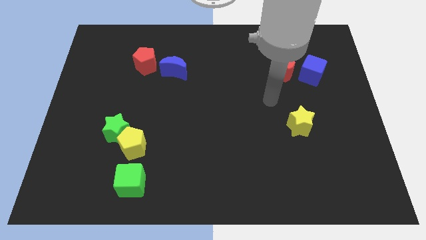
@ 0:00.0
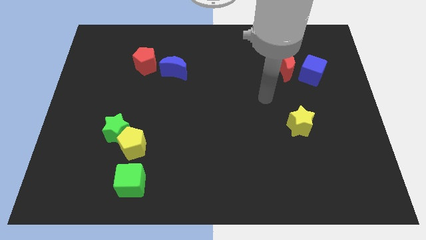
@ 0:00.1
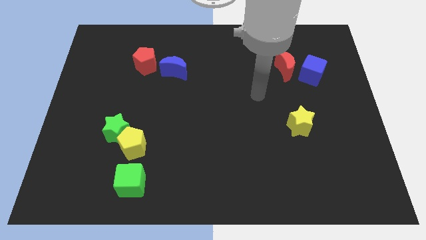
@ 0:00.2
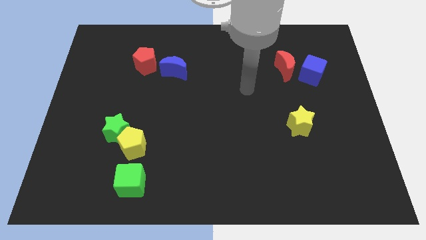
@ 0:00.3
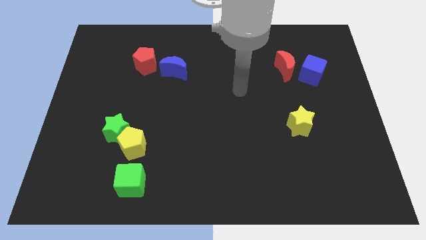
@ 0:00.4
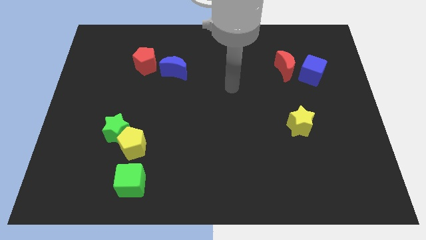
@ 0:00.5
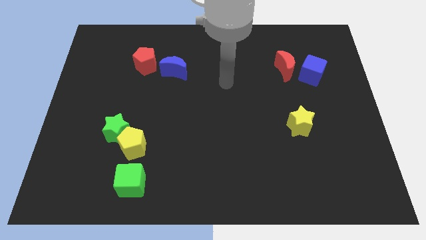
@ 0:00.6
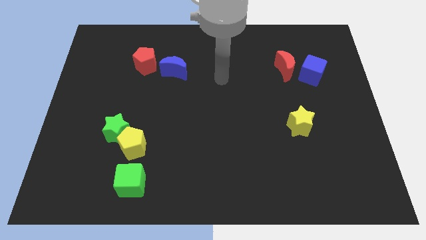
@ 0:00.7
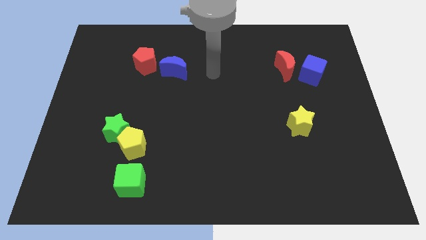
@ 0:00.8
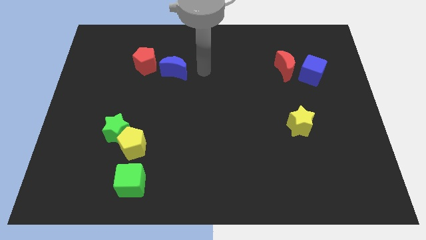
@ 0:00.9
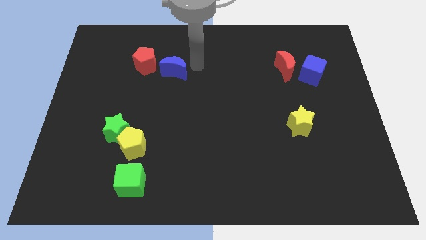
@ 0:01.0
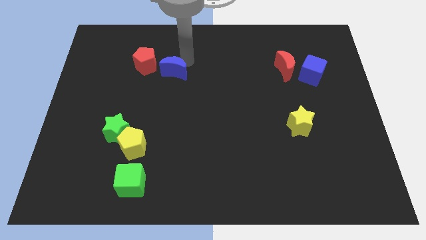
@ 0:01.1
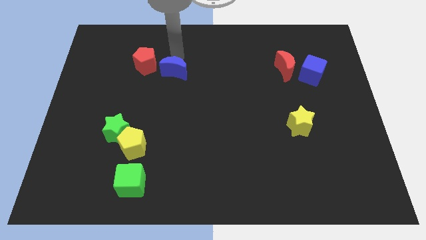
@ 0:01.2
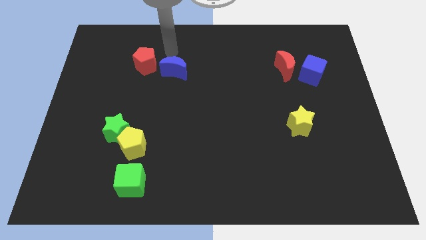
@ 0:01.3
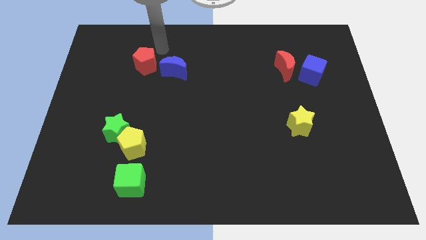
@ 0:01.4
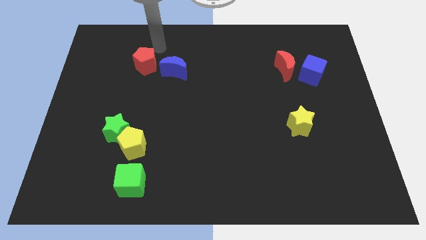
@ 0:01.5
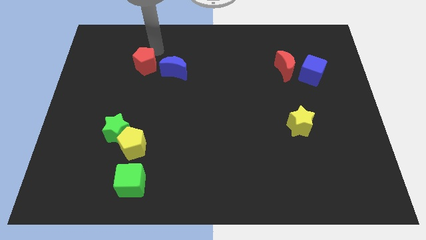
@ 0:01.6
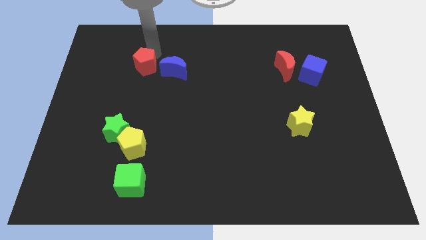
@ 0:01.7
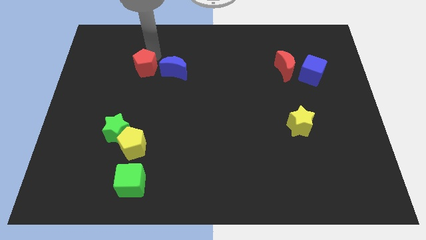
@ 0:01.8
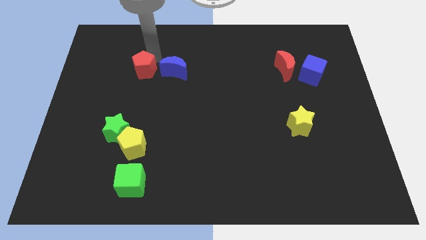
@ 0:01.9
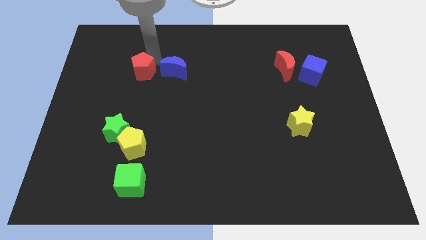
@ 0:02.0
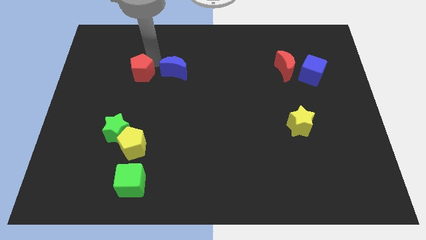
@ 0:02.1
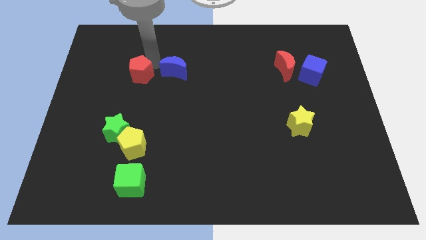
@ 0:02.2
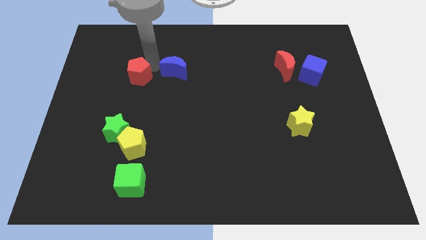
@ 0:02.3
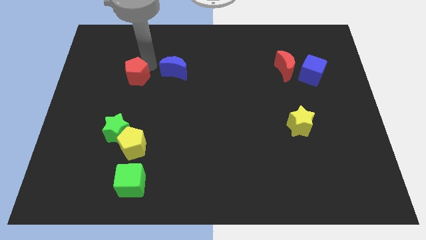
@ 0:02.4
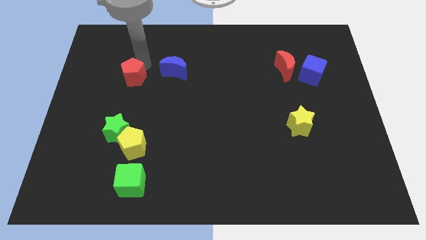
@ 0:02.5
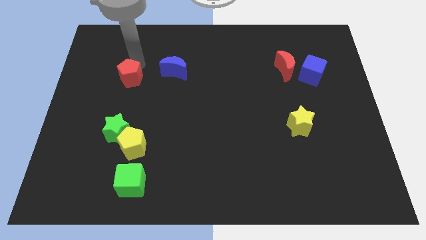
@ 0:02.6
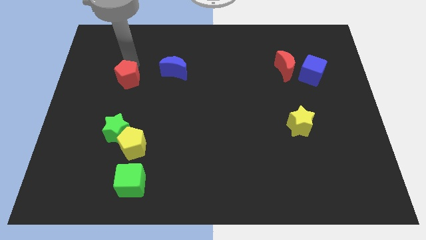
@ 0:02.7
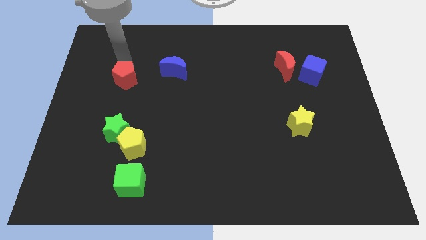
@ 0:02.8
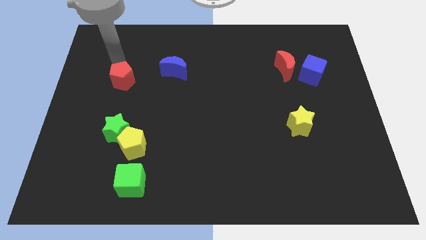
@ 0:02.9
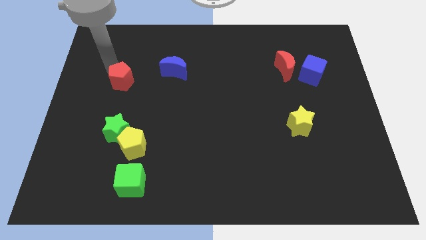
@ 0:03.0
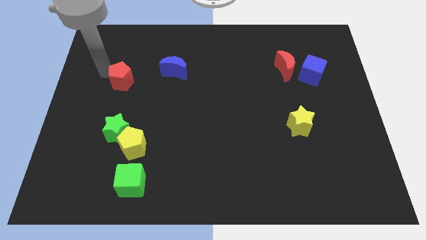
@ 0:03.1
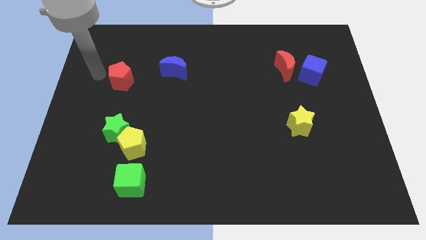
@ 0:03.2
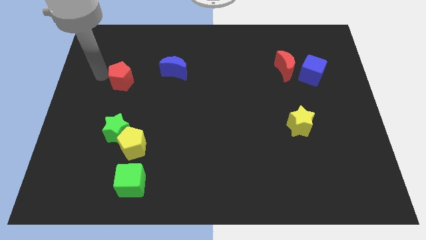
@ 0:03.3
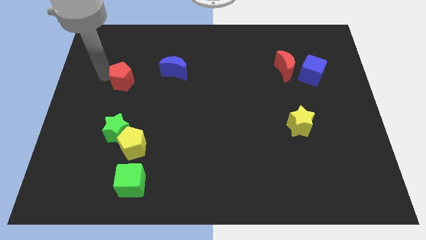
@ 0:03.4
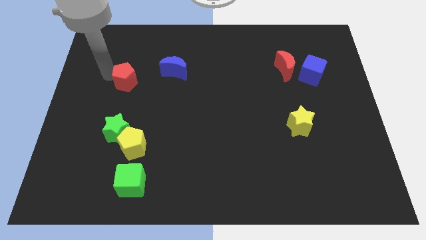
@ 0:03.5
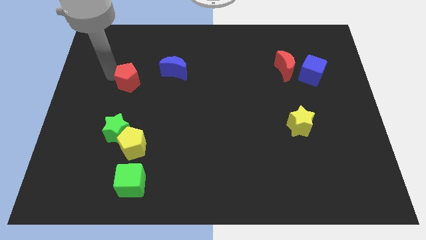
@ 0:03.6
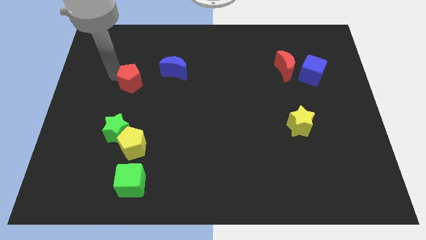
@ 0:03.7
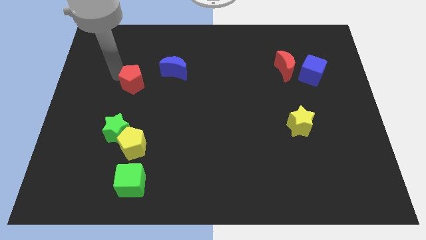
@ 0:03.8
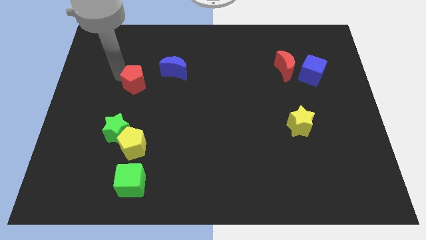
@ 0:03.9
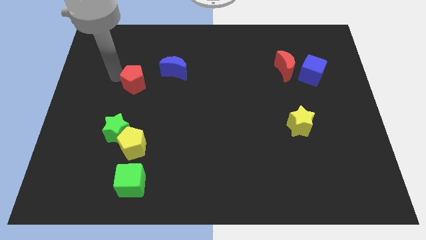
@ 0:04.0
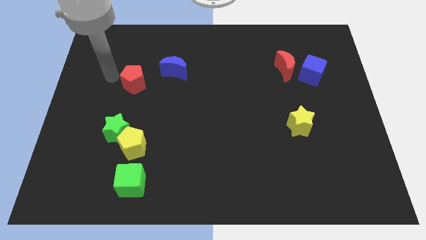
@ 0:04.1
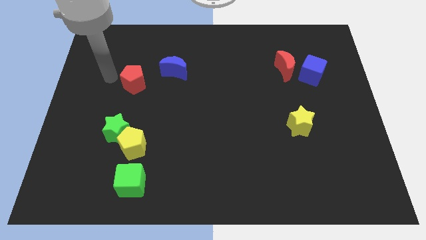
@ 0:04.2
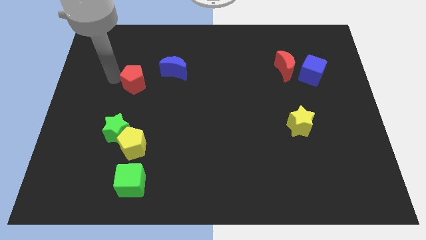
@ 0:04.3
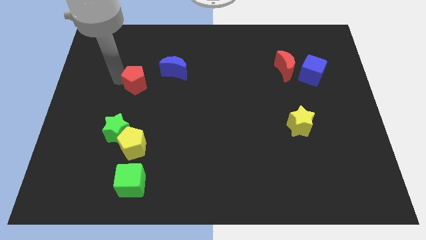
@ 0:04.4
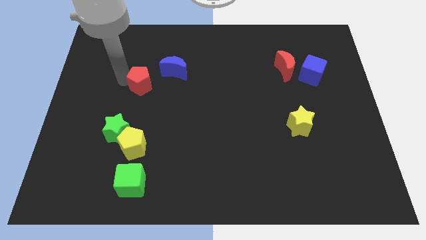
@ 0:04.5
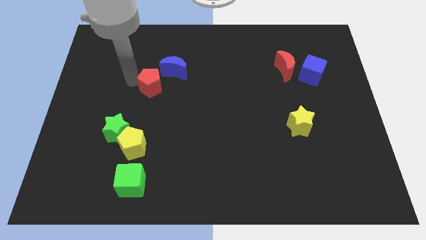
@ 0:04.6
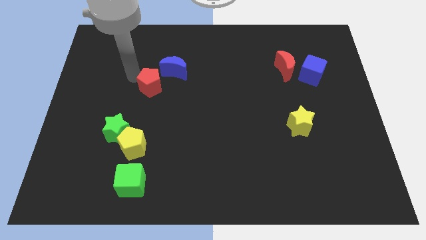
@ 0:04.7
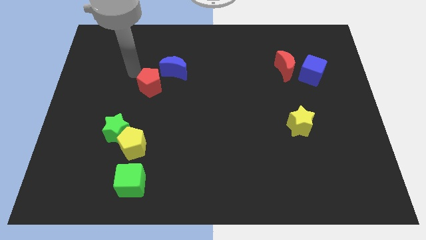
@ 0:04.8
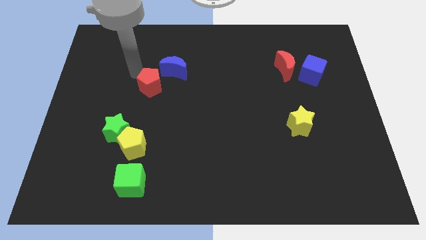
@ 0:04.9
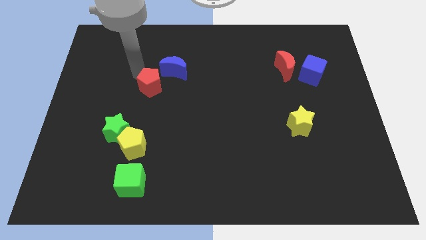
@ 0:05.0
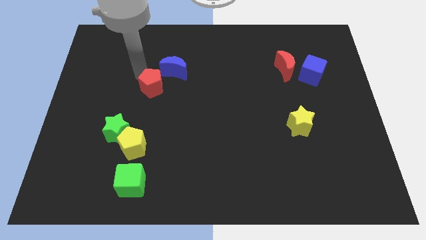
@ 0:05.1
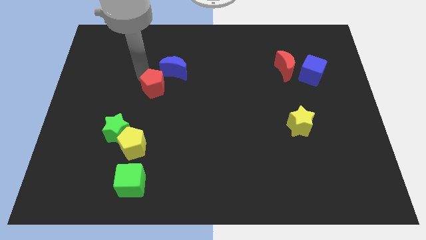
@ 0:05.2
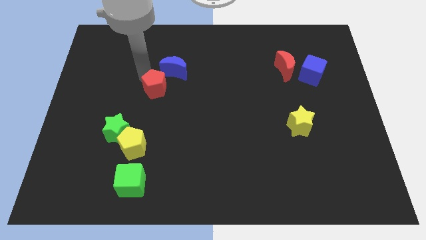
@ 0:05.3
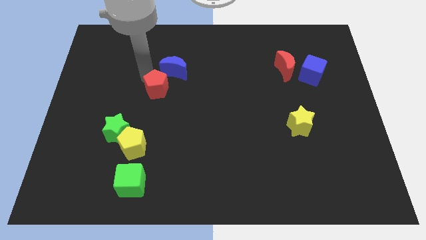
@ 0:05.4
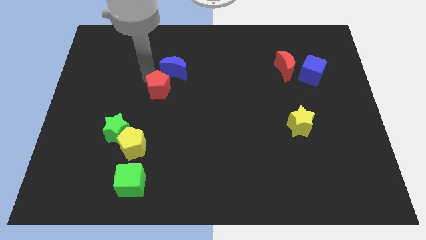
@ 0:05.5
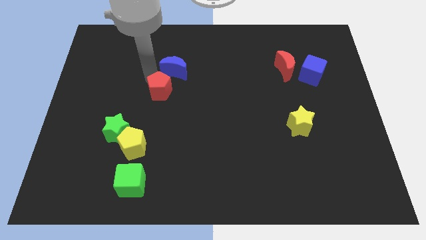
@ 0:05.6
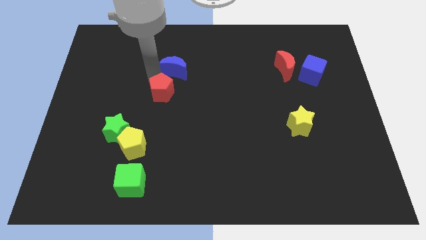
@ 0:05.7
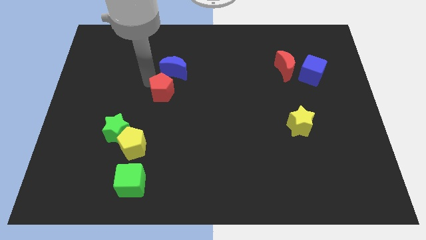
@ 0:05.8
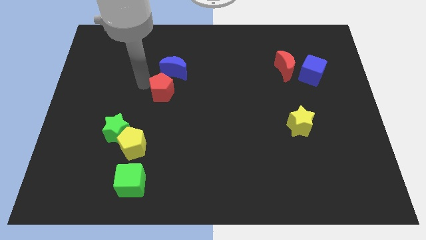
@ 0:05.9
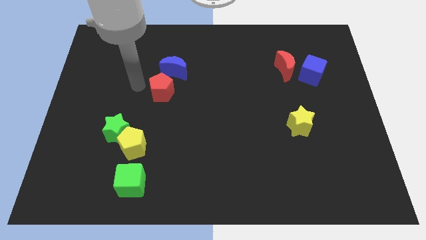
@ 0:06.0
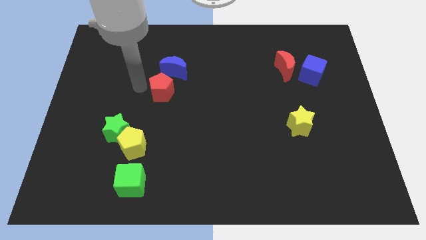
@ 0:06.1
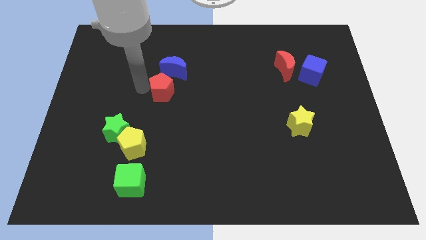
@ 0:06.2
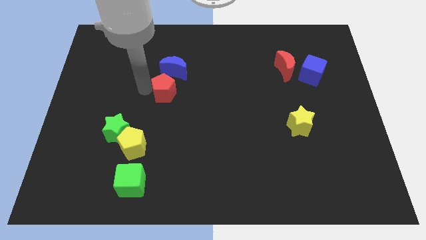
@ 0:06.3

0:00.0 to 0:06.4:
slide the red pentagon to the center of the board
